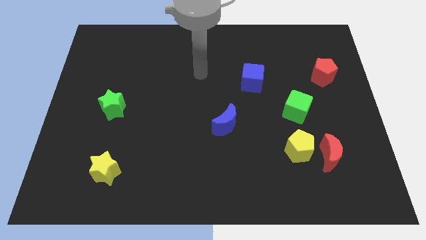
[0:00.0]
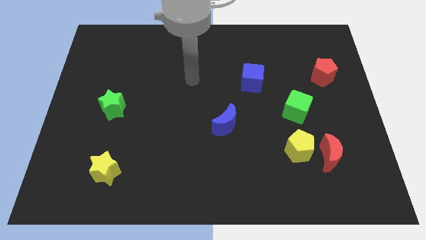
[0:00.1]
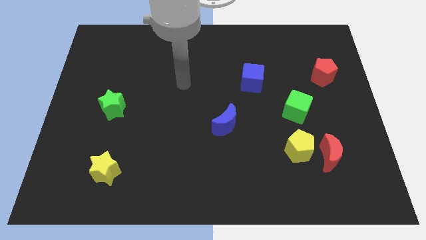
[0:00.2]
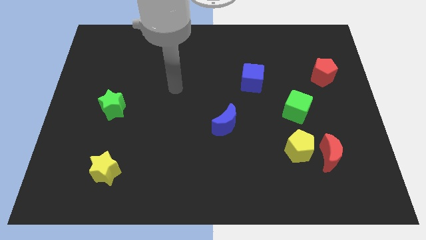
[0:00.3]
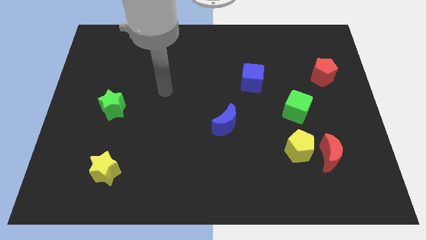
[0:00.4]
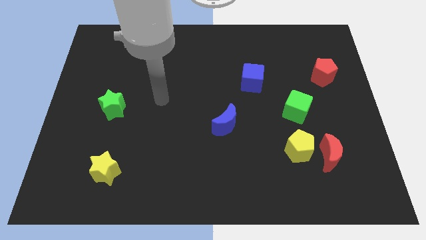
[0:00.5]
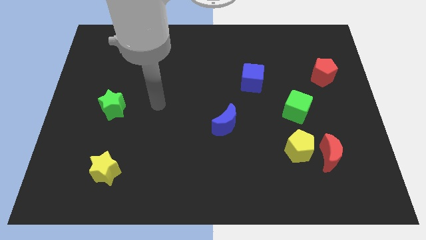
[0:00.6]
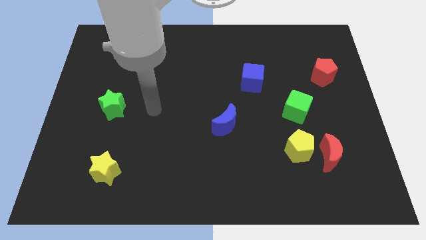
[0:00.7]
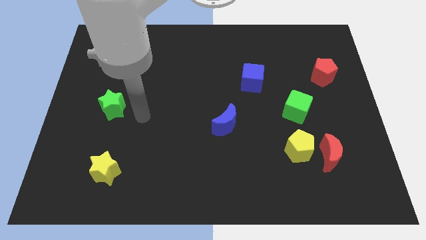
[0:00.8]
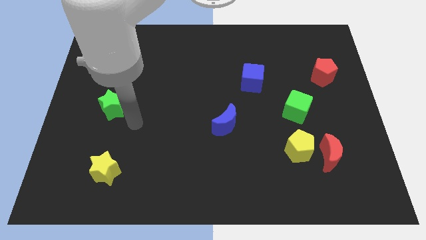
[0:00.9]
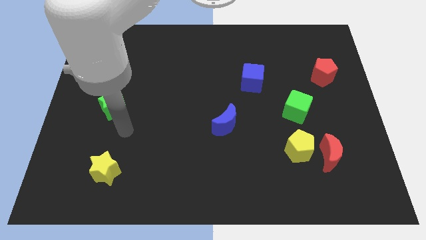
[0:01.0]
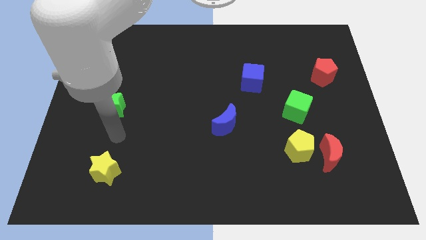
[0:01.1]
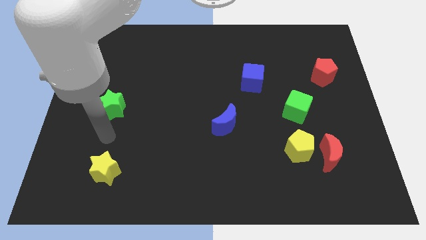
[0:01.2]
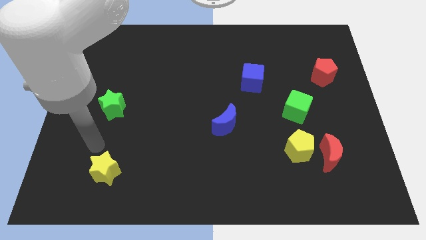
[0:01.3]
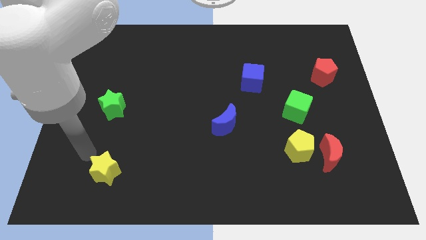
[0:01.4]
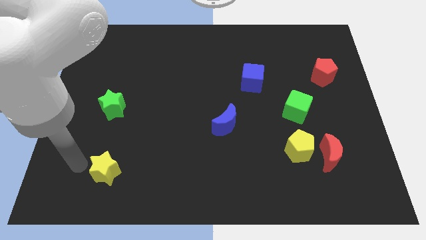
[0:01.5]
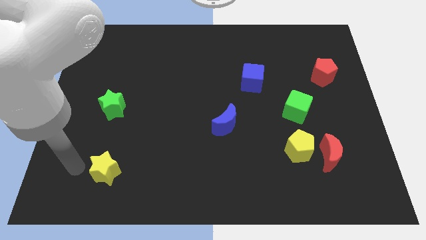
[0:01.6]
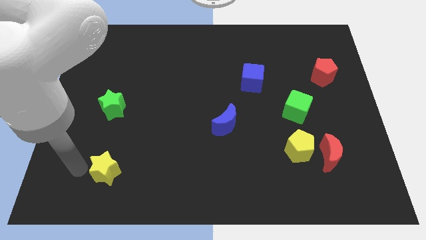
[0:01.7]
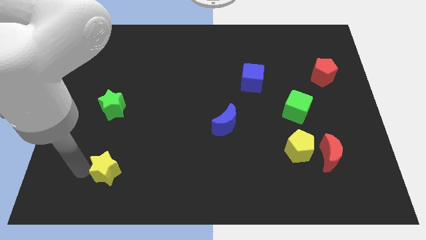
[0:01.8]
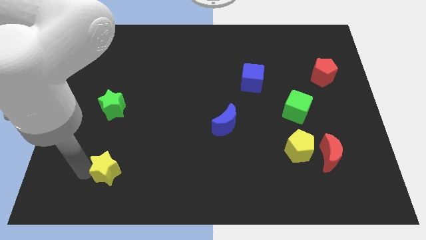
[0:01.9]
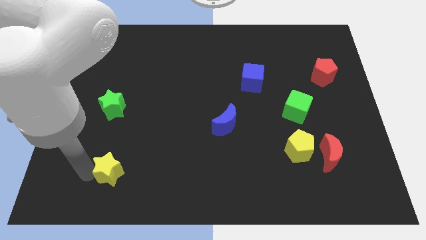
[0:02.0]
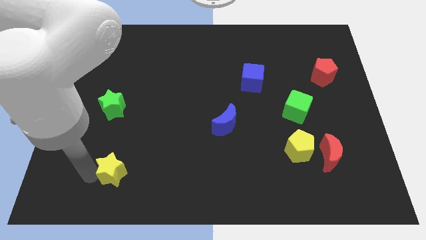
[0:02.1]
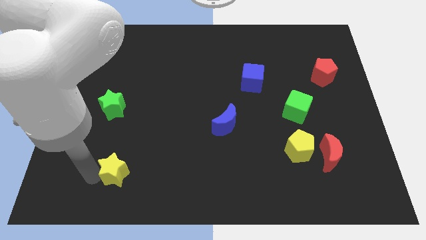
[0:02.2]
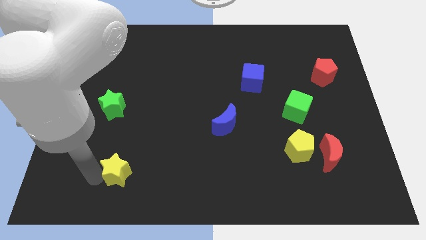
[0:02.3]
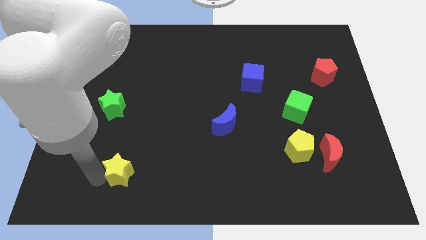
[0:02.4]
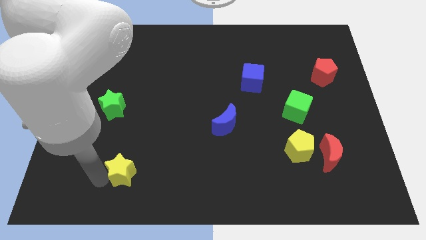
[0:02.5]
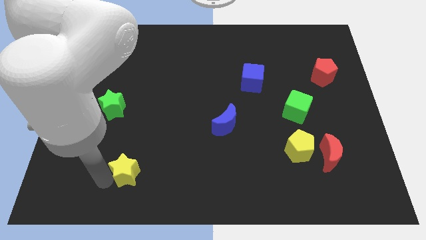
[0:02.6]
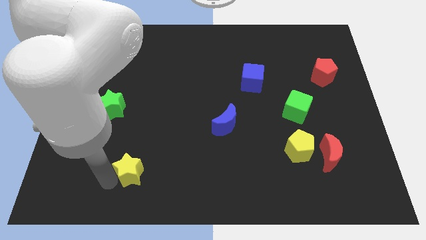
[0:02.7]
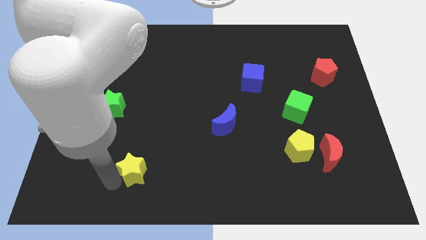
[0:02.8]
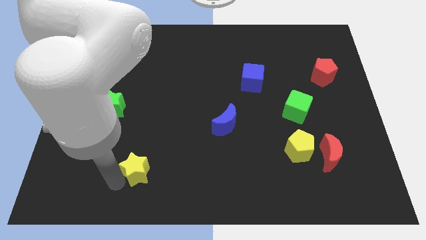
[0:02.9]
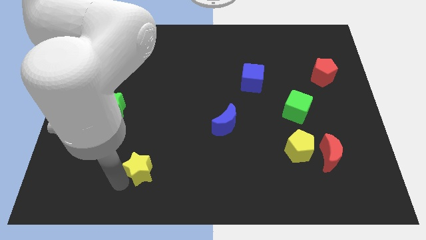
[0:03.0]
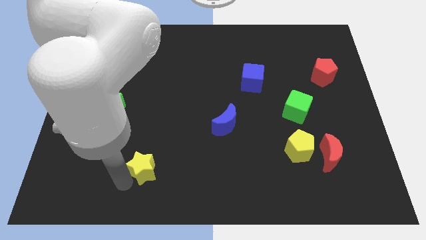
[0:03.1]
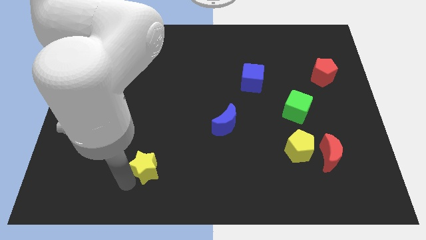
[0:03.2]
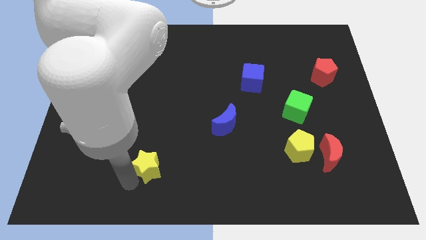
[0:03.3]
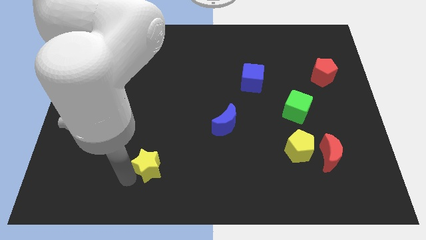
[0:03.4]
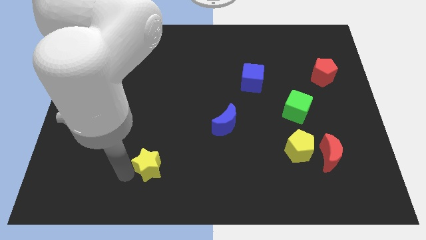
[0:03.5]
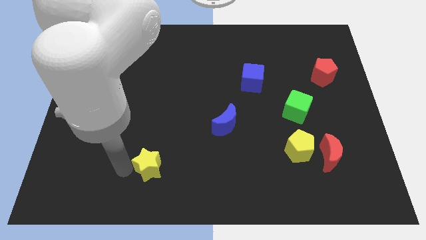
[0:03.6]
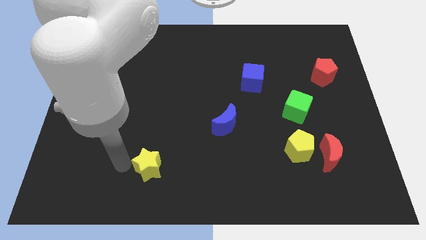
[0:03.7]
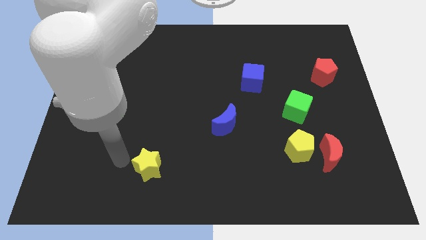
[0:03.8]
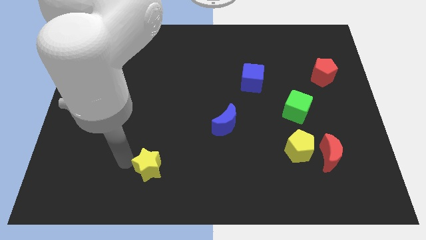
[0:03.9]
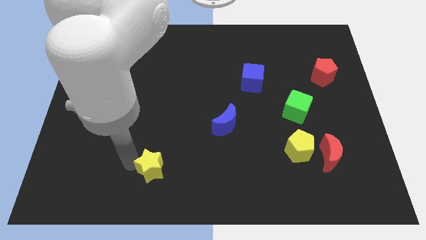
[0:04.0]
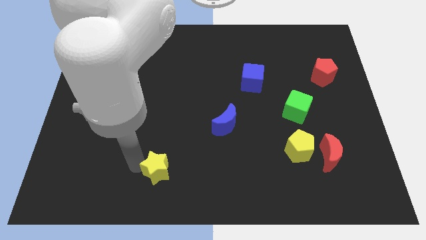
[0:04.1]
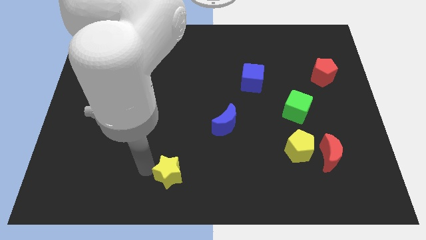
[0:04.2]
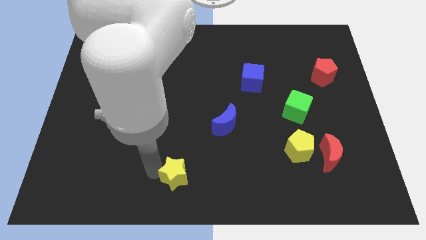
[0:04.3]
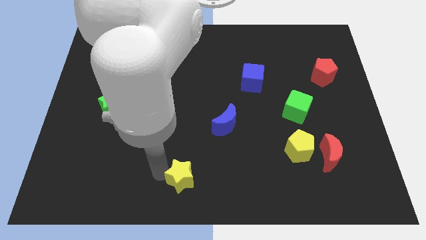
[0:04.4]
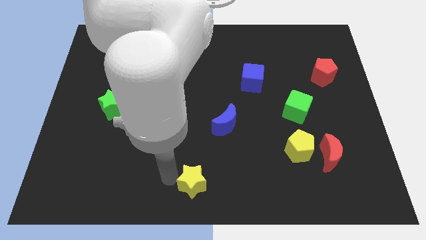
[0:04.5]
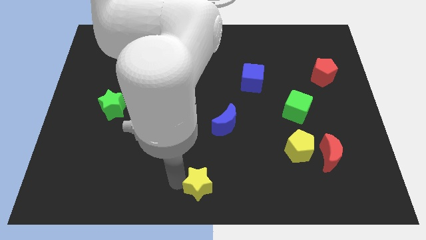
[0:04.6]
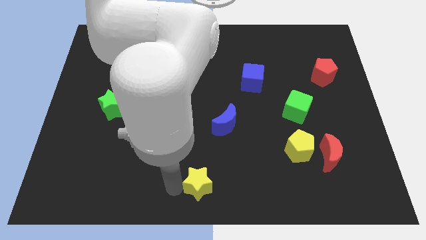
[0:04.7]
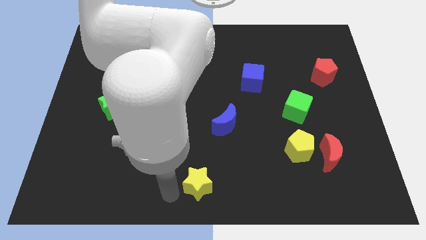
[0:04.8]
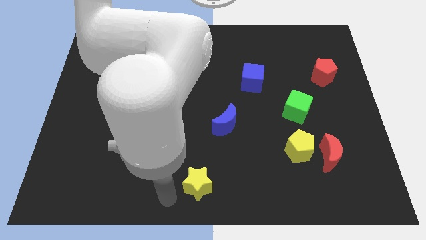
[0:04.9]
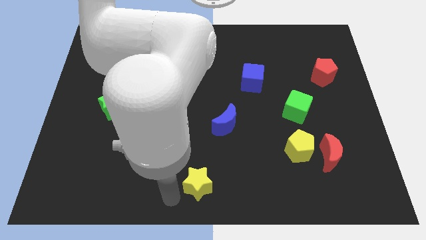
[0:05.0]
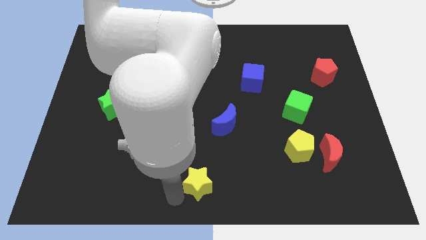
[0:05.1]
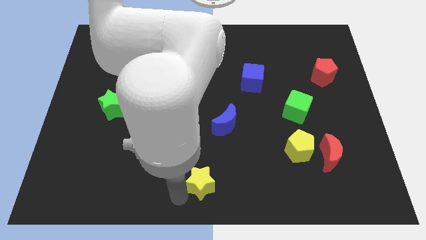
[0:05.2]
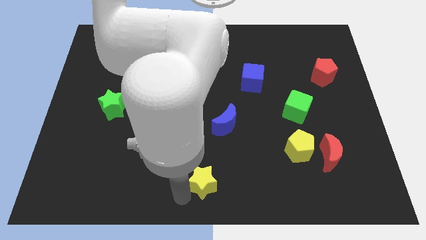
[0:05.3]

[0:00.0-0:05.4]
move the yellow star to the right

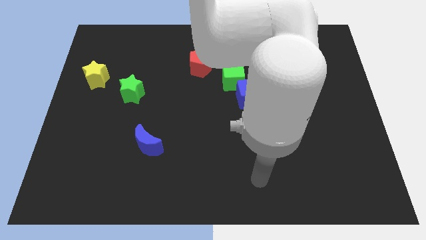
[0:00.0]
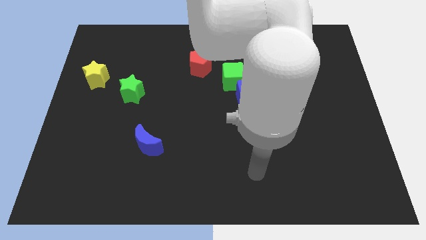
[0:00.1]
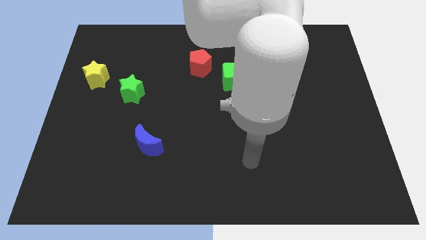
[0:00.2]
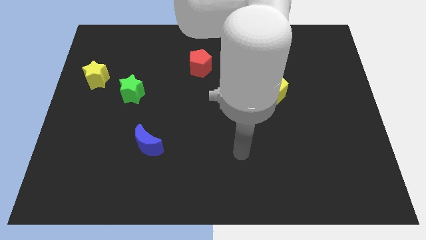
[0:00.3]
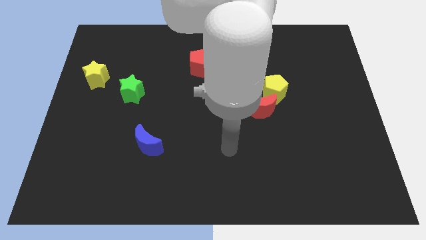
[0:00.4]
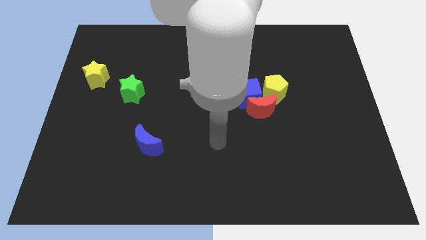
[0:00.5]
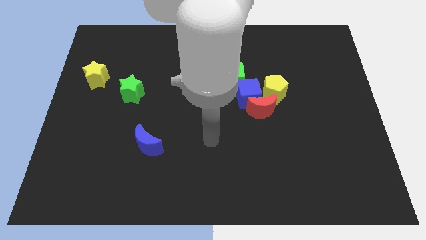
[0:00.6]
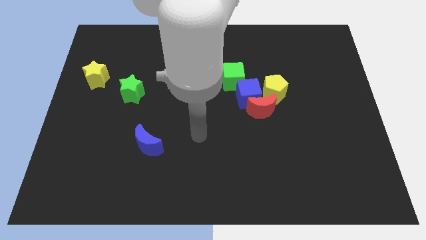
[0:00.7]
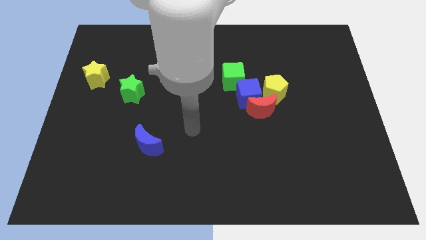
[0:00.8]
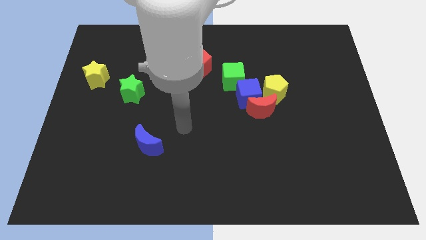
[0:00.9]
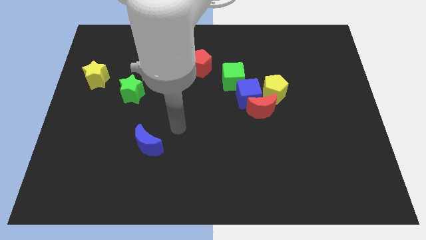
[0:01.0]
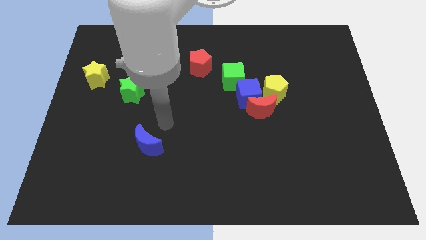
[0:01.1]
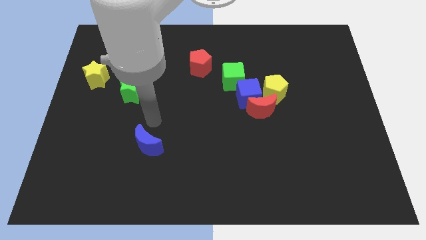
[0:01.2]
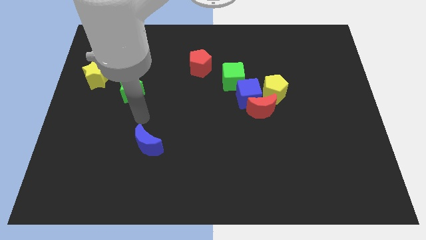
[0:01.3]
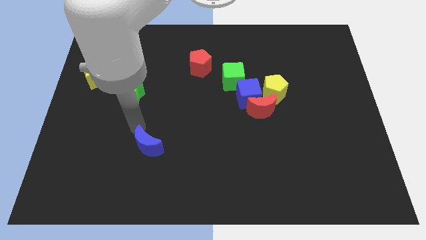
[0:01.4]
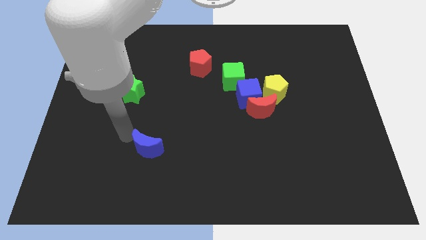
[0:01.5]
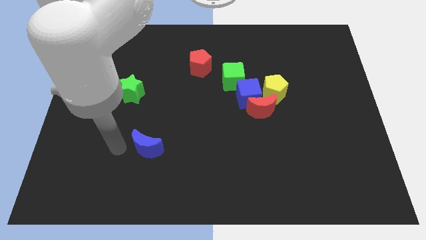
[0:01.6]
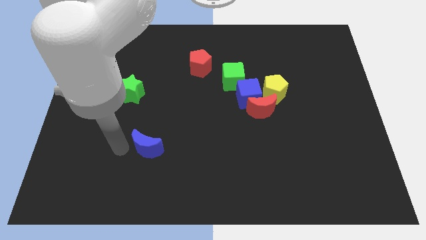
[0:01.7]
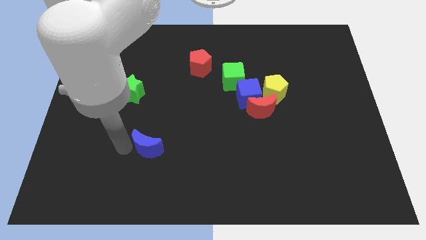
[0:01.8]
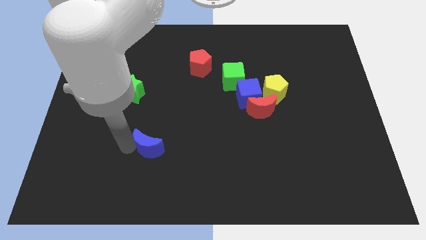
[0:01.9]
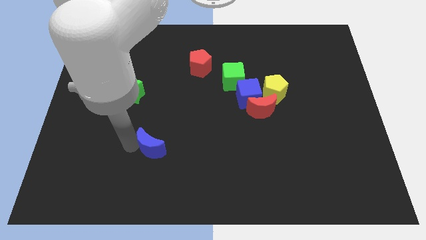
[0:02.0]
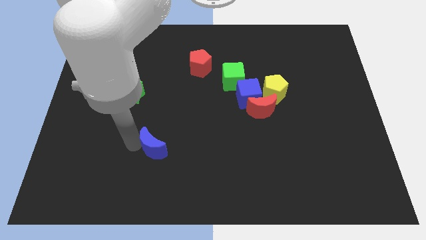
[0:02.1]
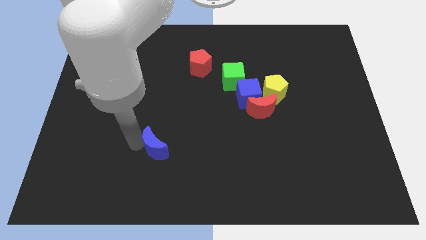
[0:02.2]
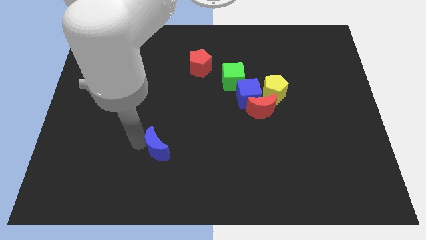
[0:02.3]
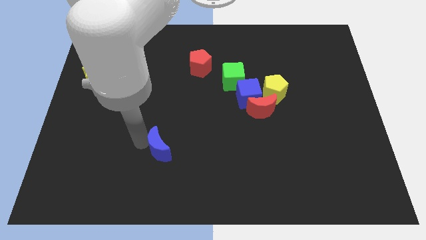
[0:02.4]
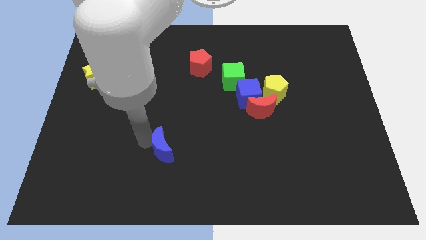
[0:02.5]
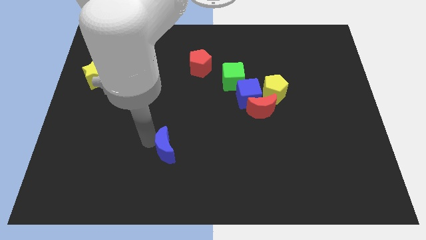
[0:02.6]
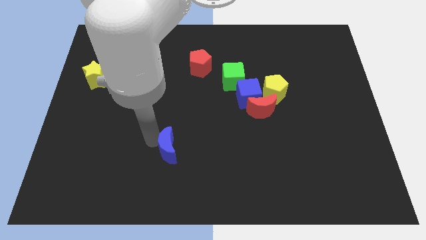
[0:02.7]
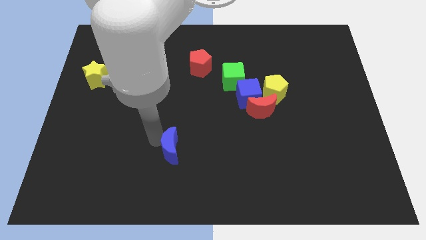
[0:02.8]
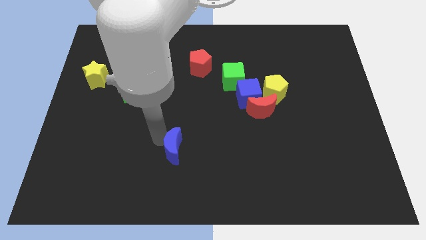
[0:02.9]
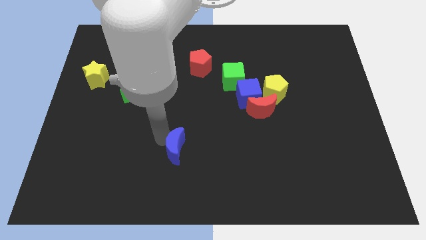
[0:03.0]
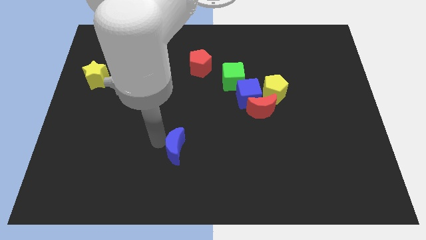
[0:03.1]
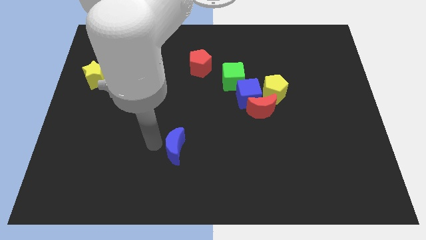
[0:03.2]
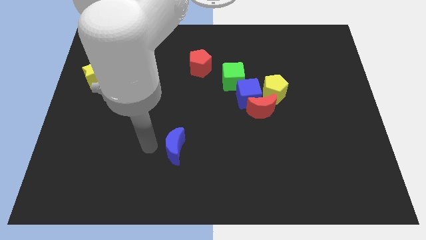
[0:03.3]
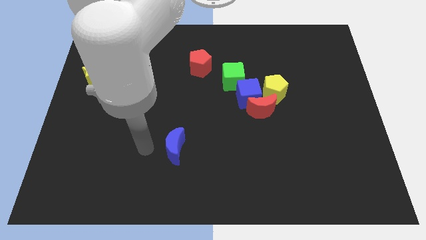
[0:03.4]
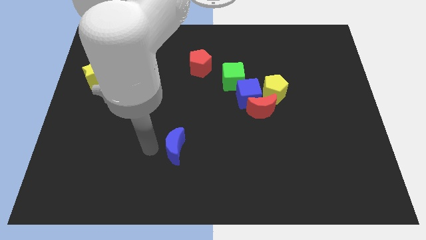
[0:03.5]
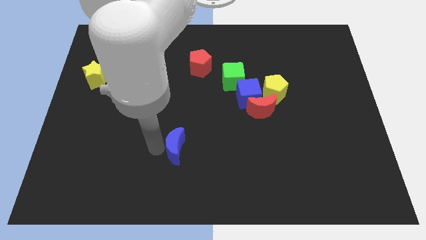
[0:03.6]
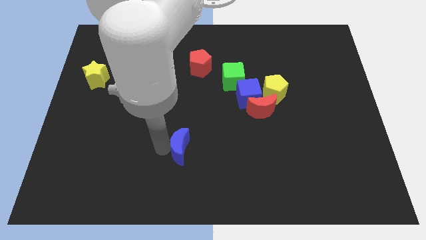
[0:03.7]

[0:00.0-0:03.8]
push the blue moon a little bit to the right
